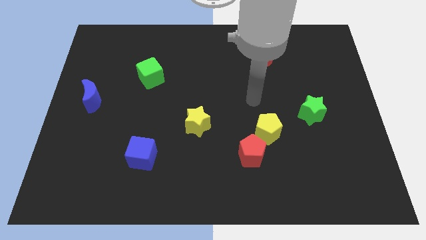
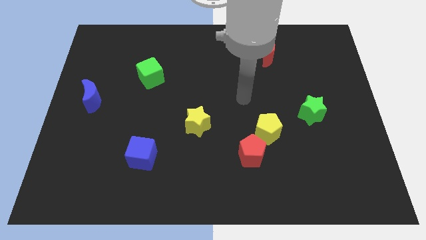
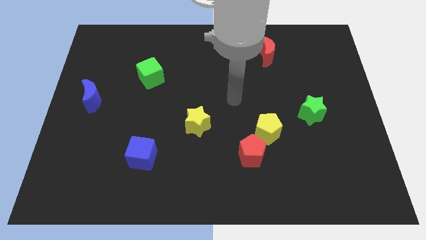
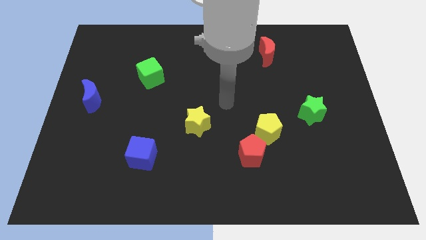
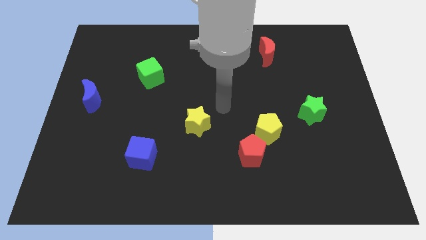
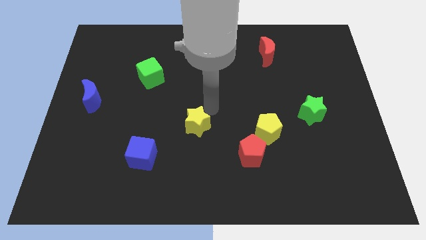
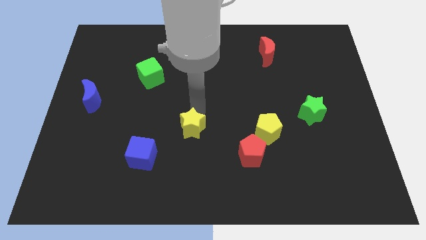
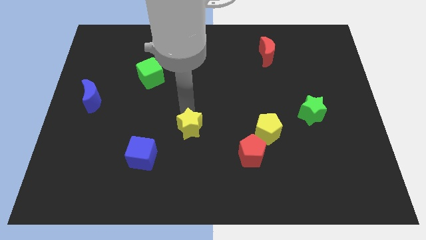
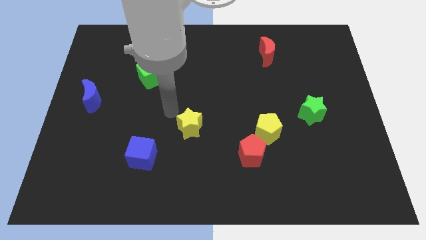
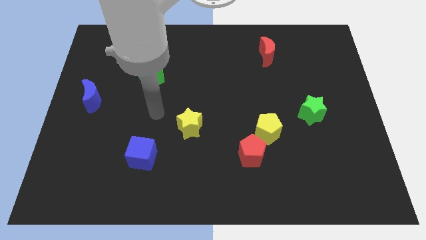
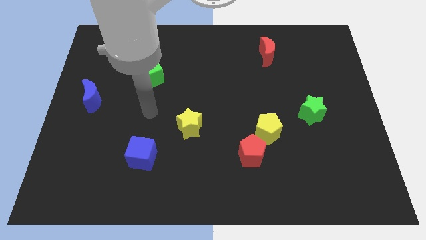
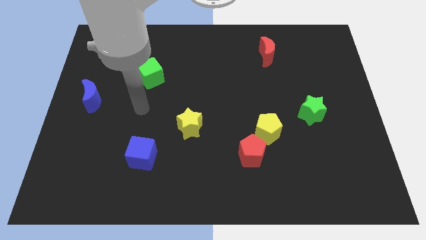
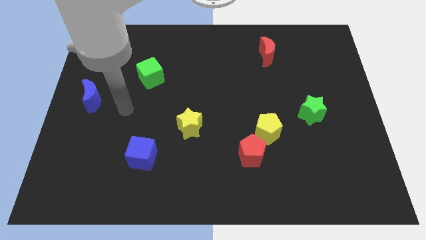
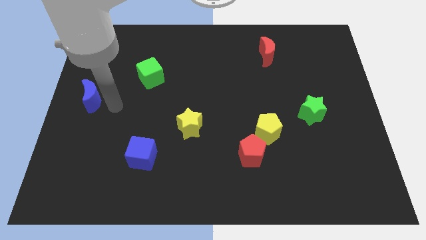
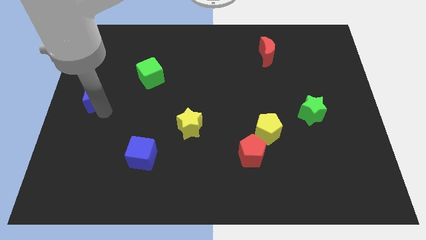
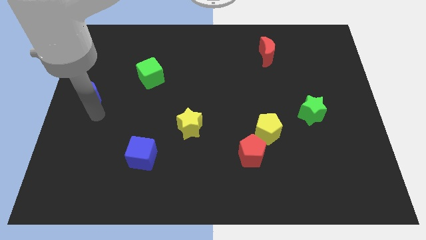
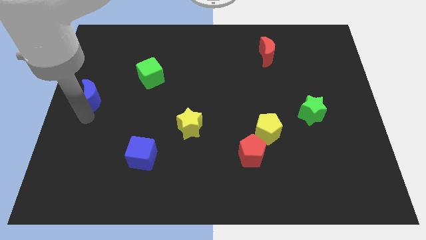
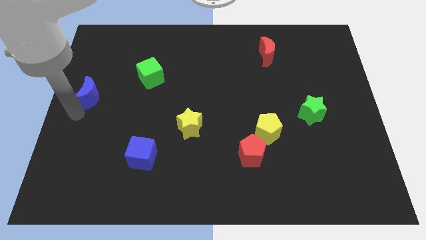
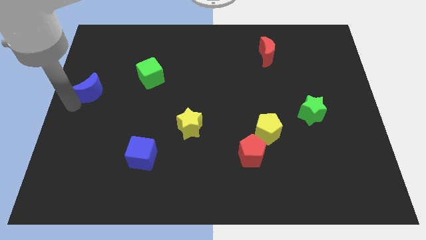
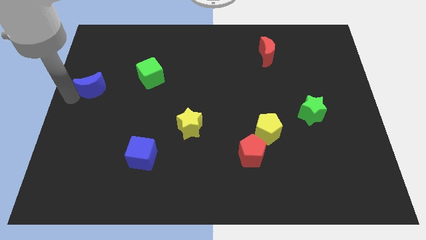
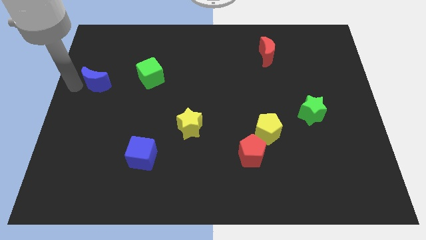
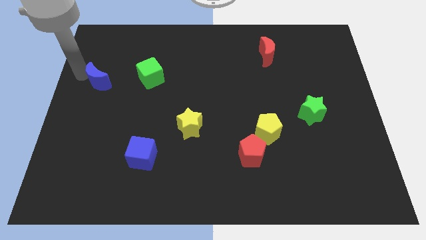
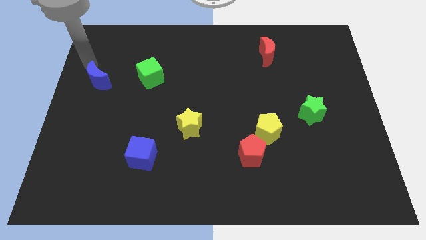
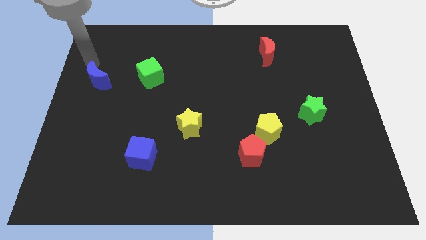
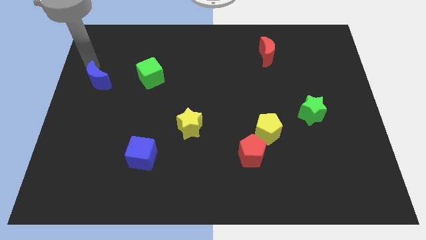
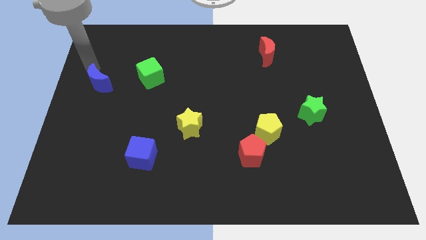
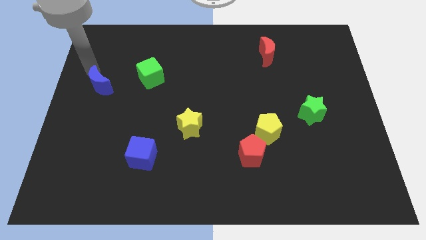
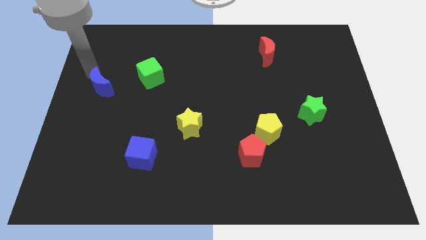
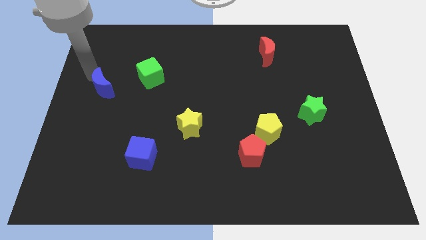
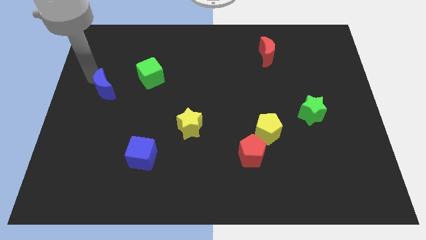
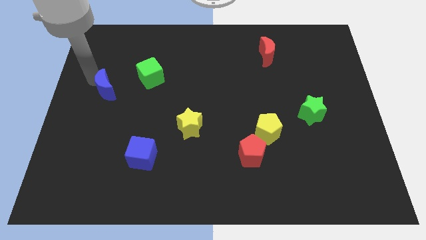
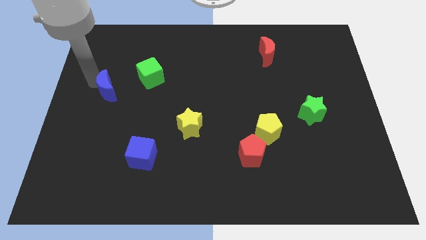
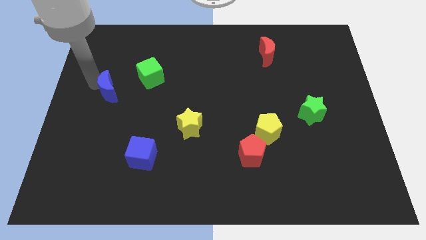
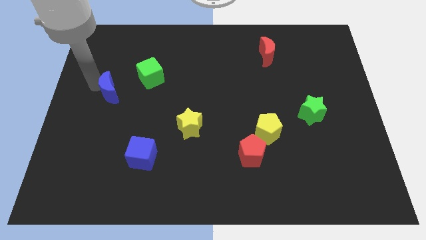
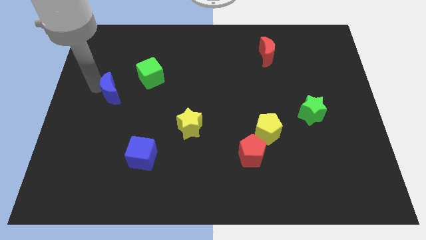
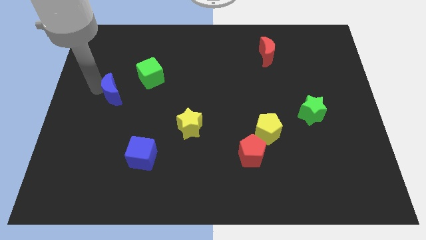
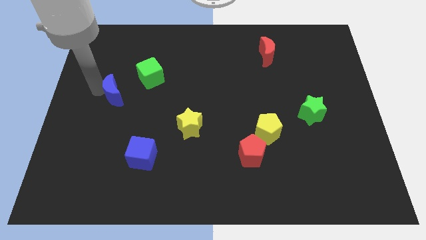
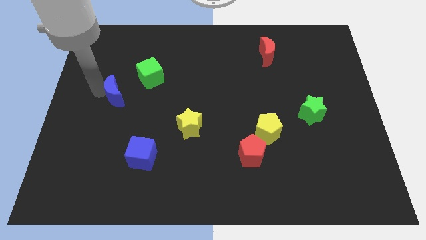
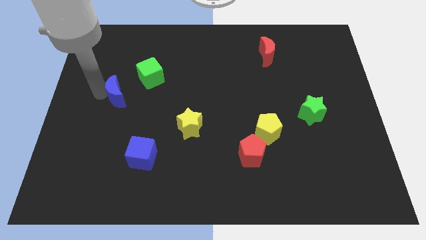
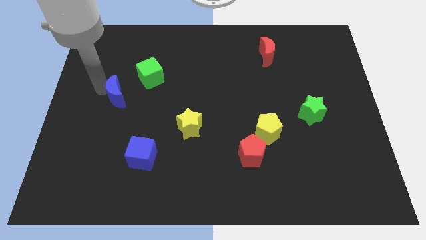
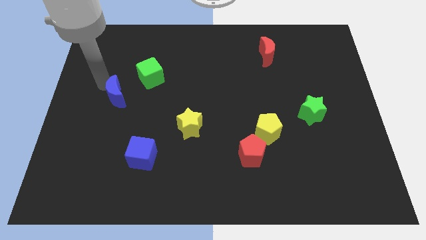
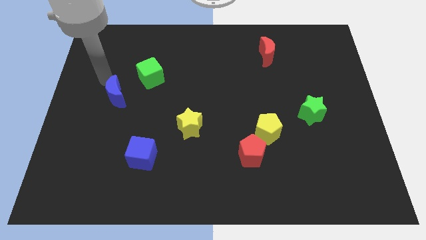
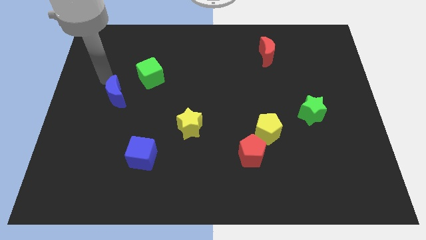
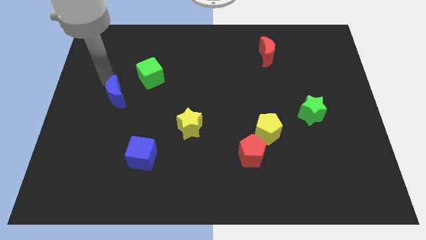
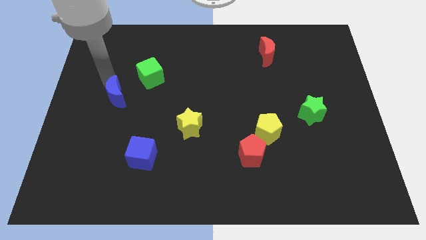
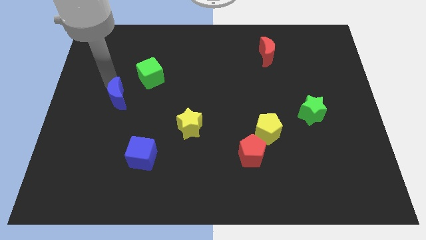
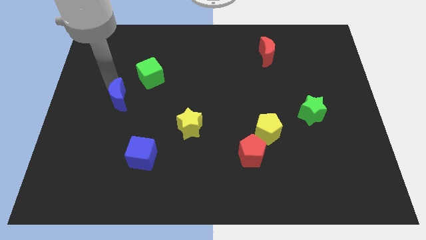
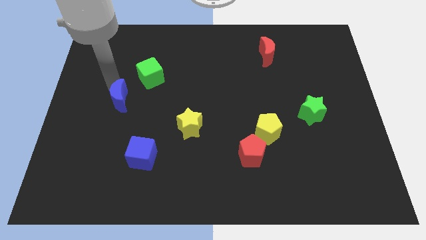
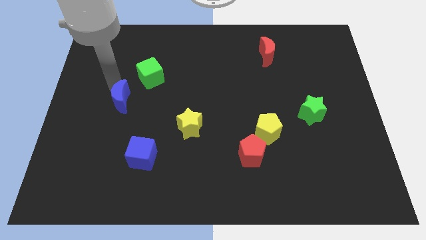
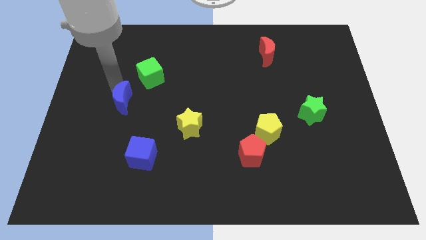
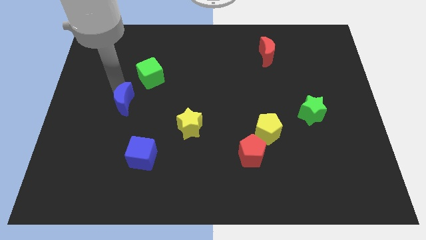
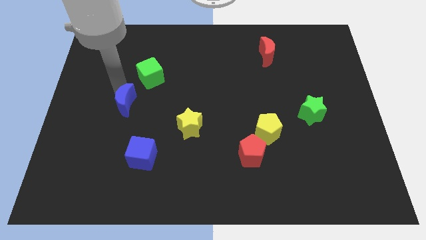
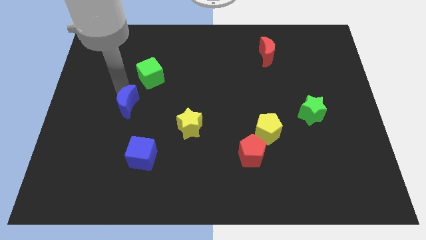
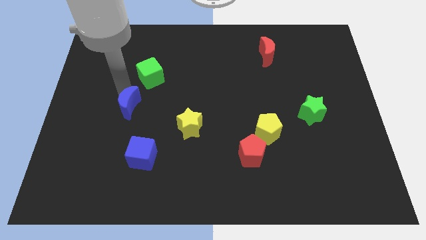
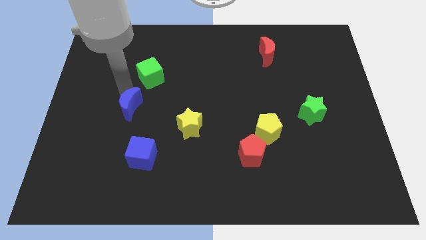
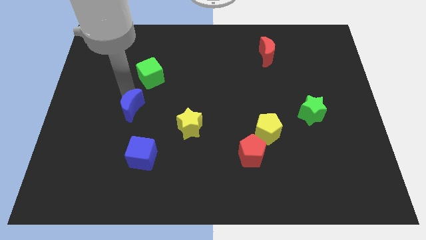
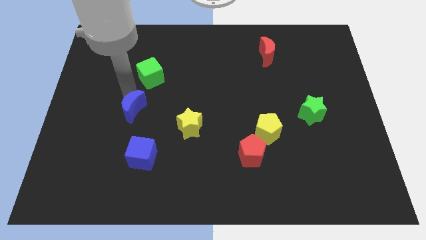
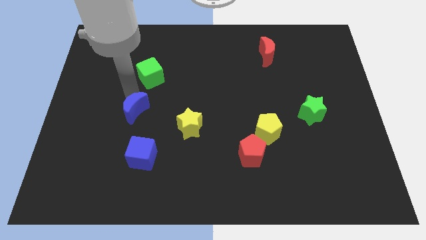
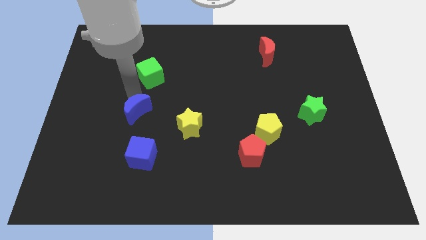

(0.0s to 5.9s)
slide the blue moon to the left of the yellow star

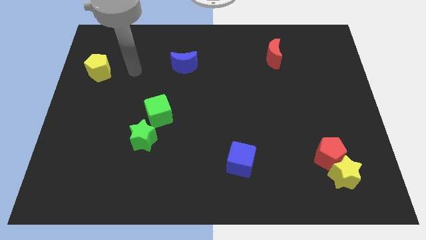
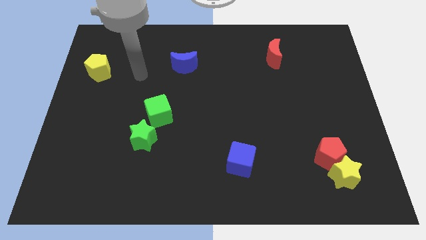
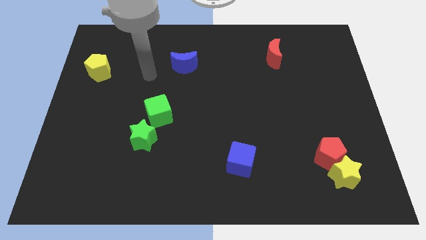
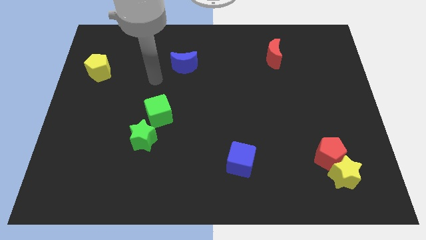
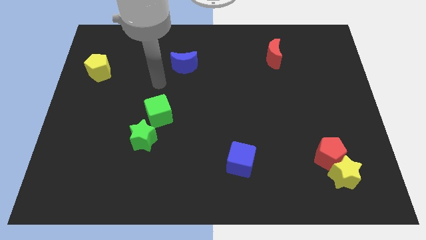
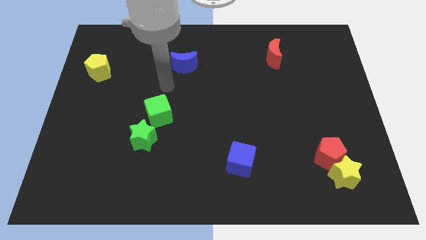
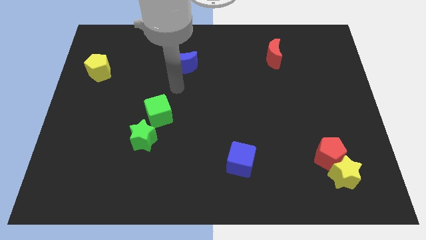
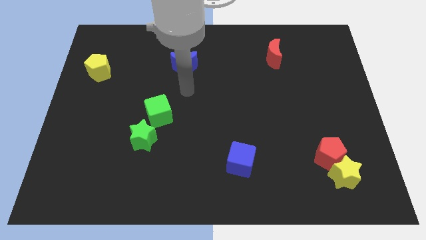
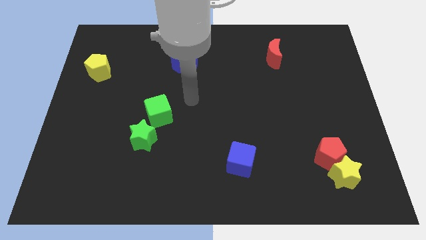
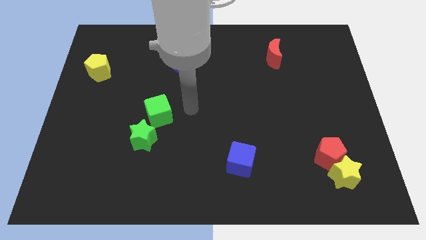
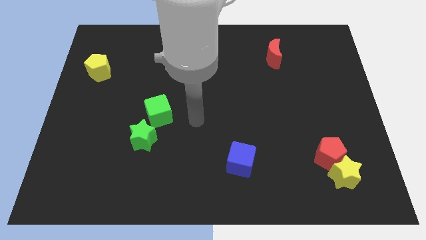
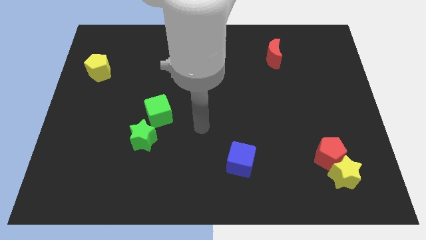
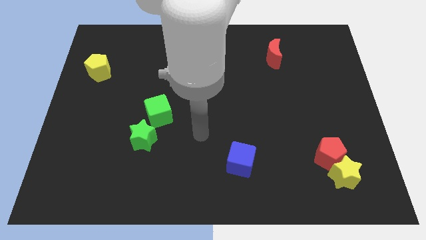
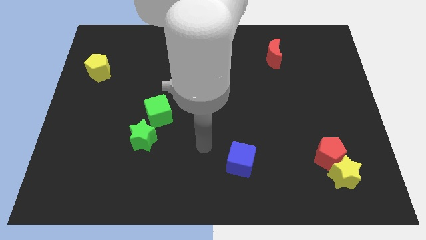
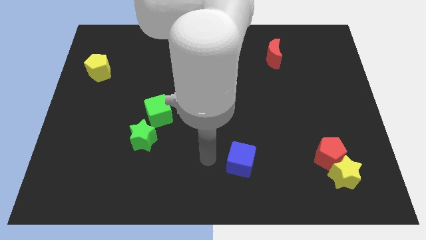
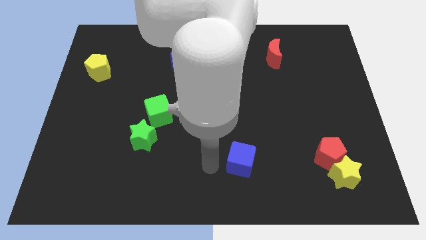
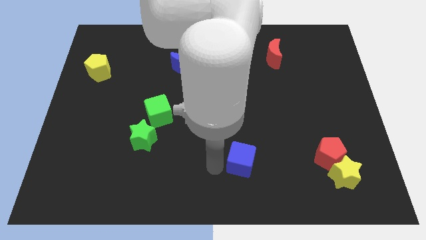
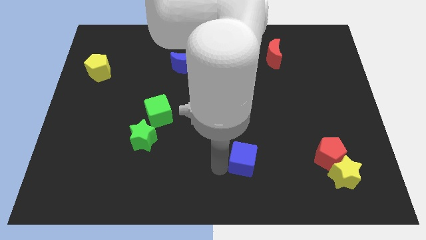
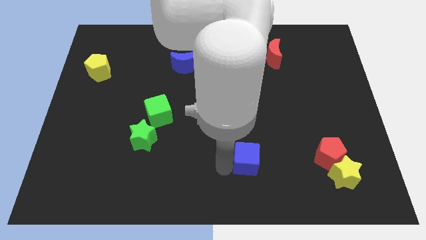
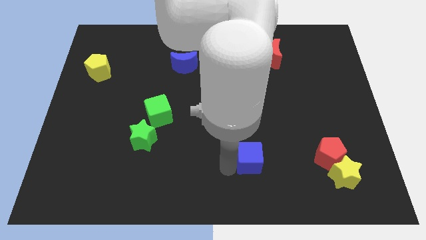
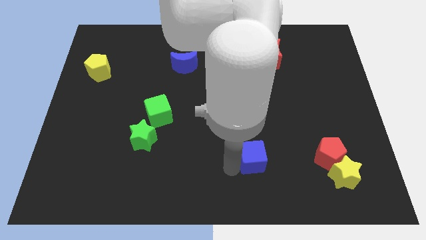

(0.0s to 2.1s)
push the blue cube to the left side of the red pentagon
